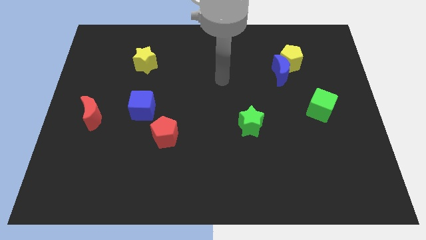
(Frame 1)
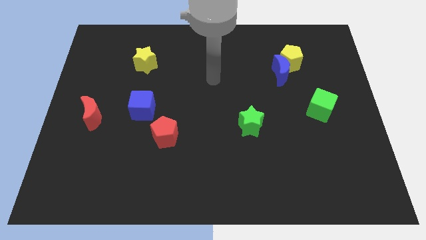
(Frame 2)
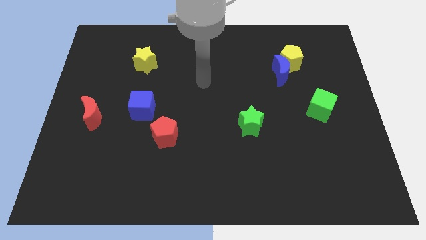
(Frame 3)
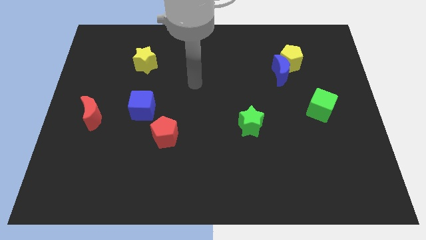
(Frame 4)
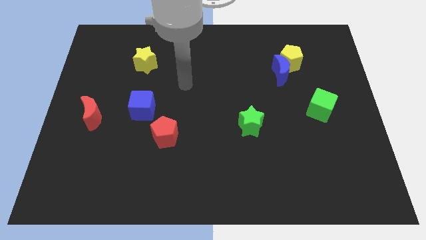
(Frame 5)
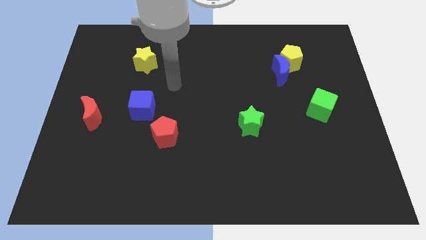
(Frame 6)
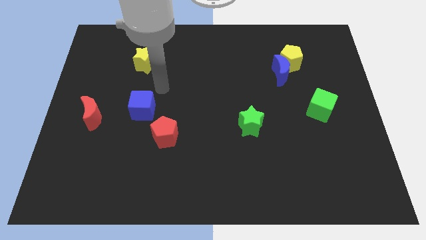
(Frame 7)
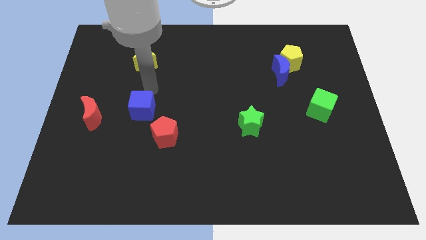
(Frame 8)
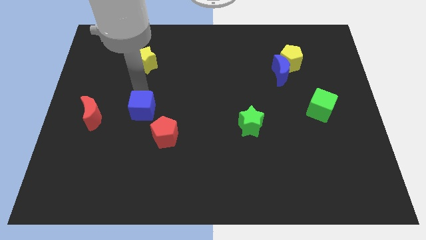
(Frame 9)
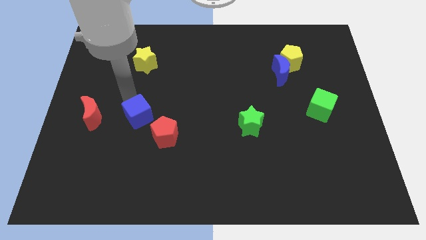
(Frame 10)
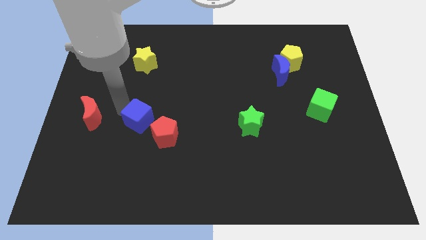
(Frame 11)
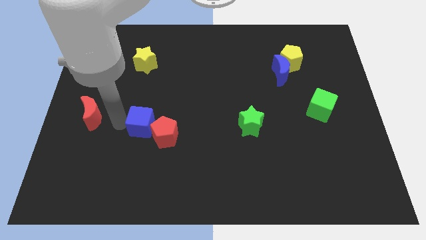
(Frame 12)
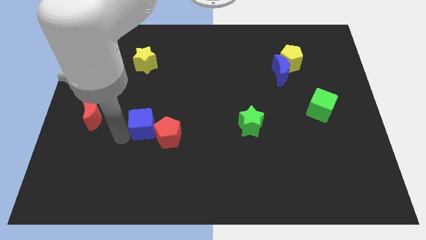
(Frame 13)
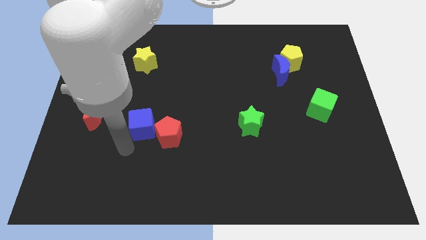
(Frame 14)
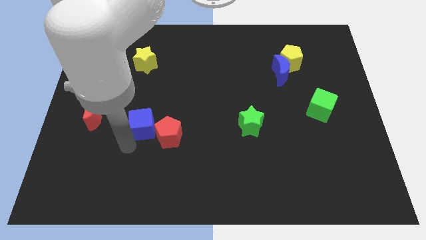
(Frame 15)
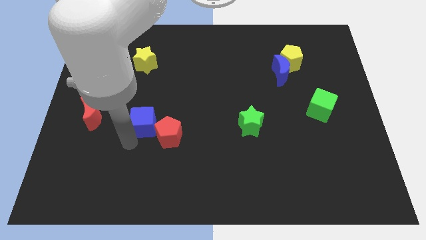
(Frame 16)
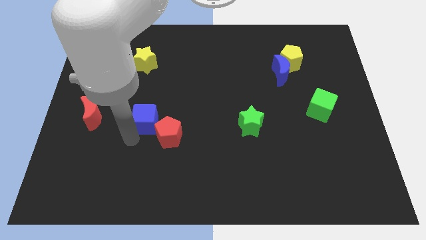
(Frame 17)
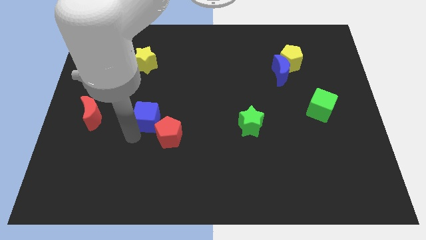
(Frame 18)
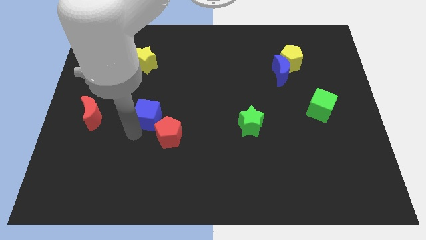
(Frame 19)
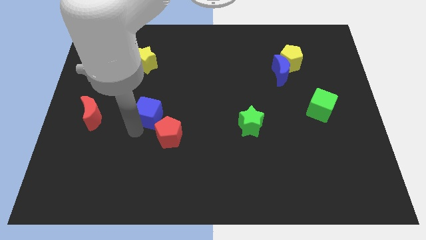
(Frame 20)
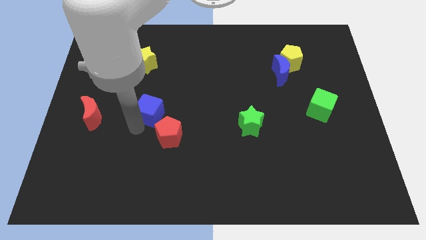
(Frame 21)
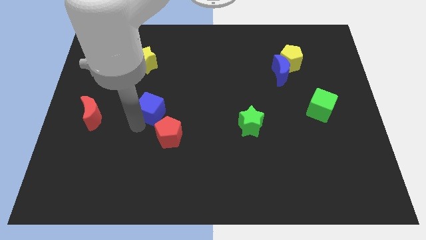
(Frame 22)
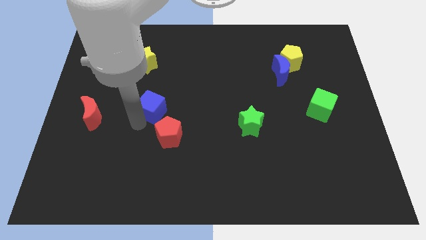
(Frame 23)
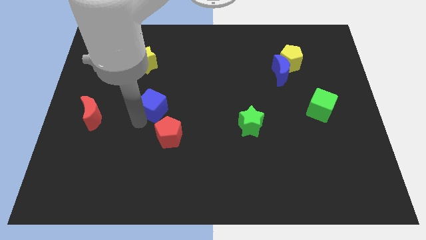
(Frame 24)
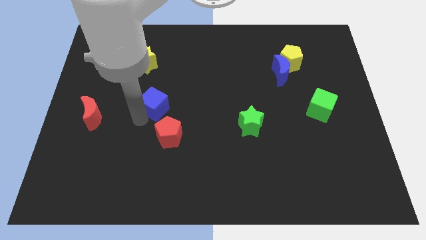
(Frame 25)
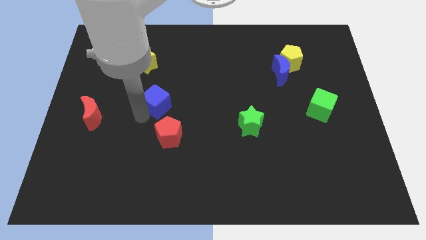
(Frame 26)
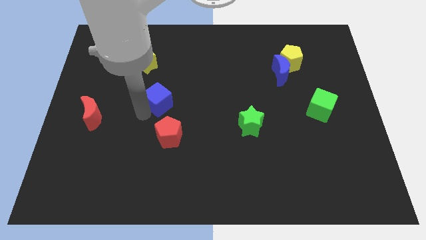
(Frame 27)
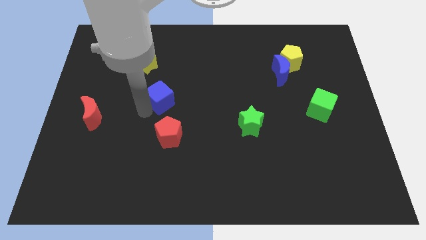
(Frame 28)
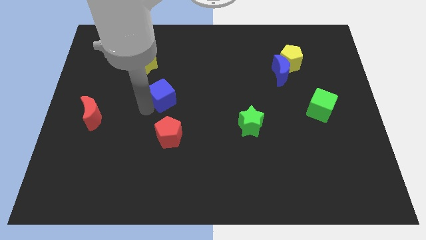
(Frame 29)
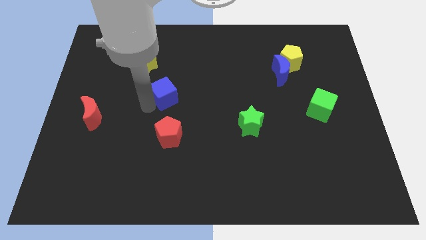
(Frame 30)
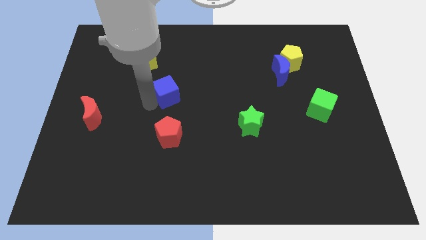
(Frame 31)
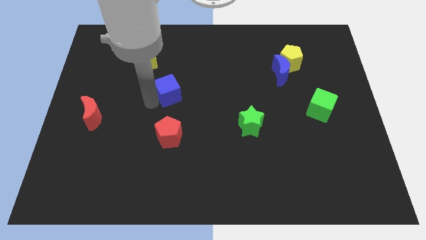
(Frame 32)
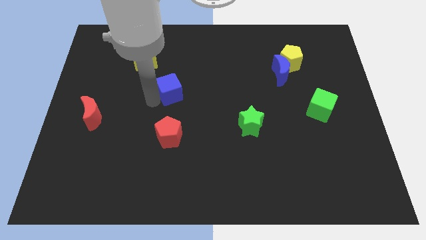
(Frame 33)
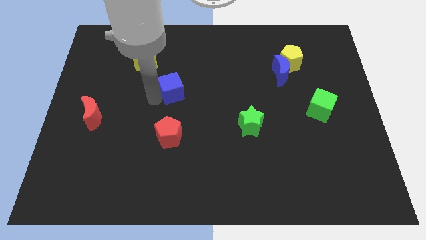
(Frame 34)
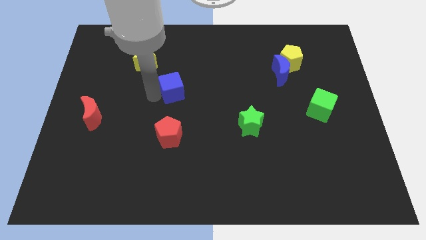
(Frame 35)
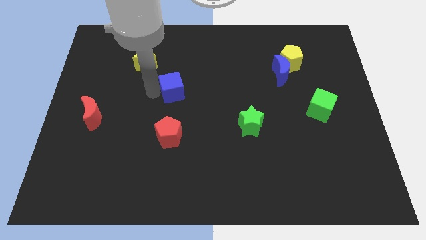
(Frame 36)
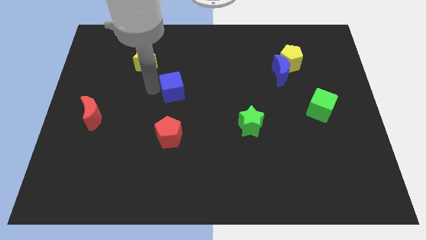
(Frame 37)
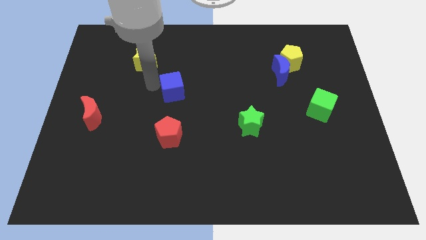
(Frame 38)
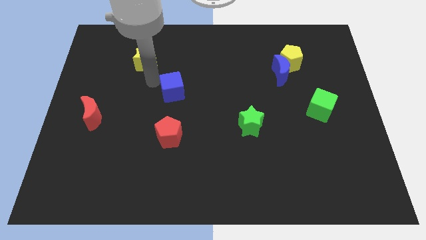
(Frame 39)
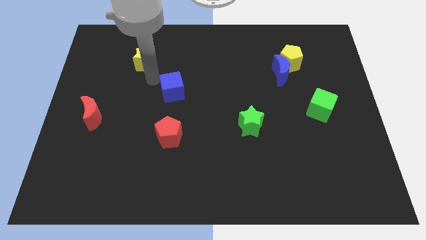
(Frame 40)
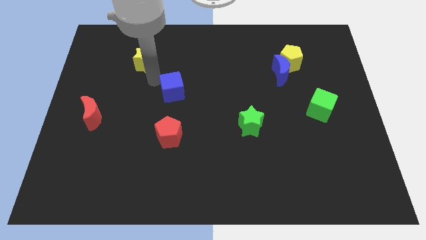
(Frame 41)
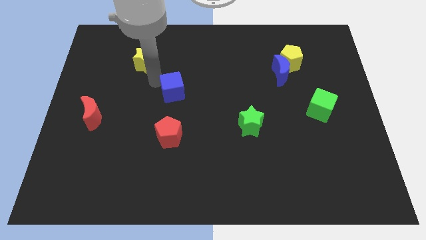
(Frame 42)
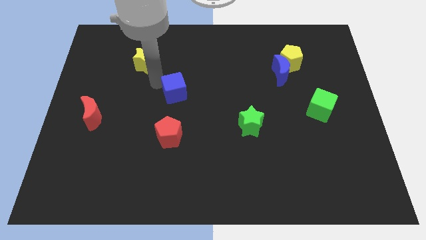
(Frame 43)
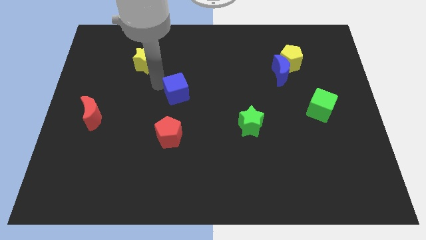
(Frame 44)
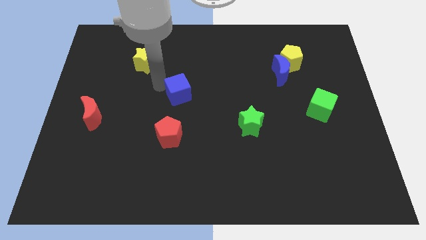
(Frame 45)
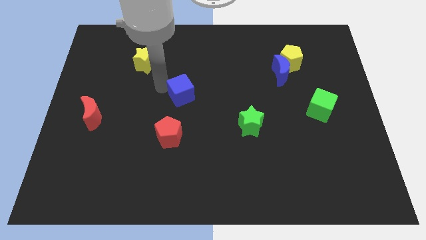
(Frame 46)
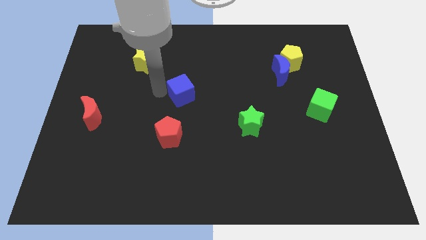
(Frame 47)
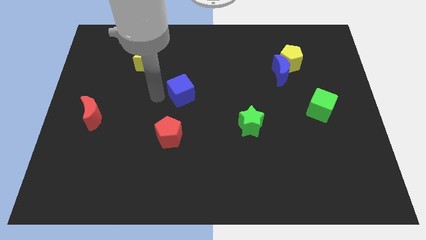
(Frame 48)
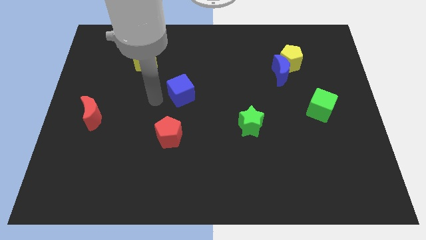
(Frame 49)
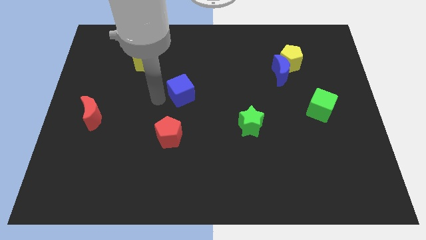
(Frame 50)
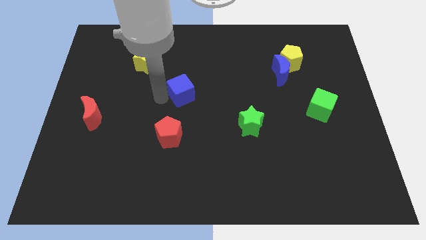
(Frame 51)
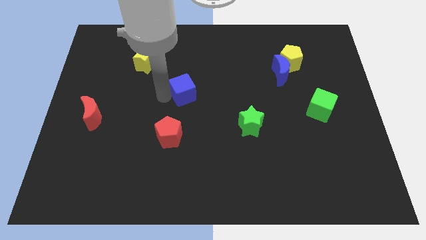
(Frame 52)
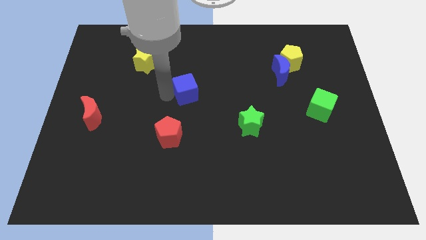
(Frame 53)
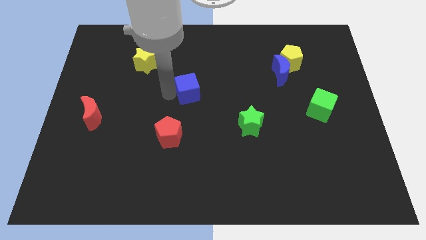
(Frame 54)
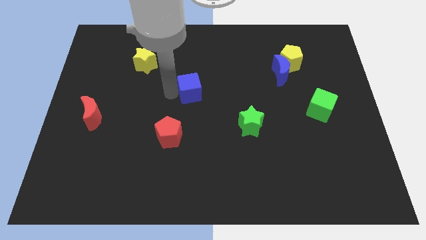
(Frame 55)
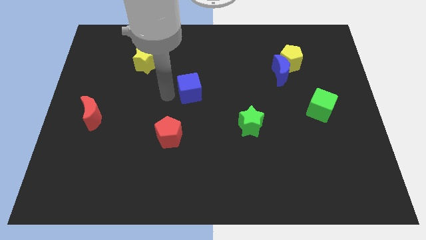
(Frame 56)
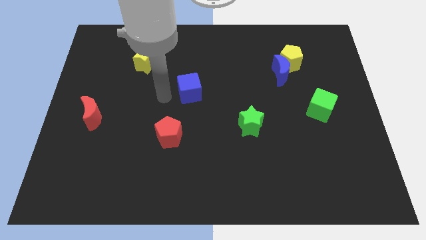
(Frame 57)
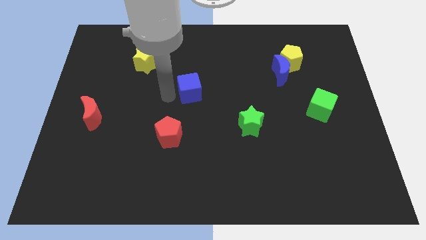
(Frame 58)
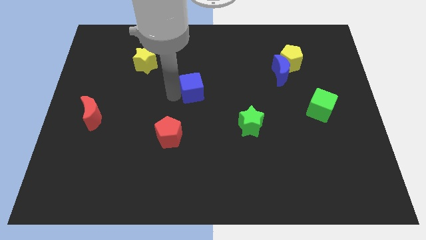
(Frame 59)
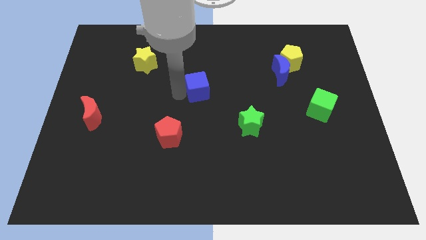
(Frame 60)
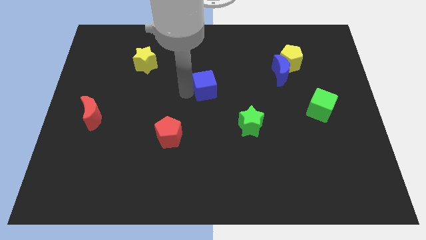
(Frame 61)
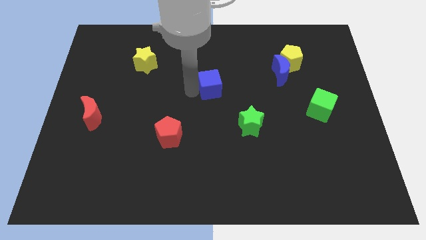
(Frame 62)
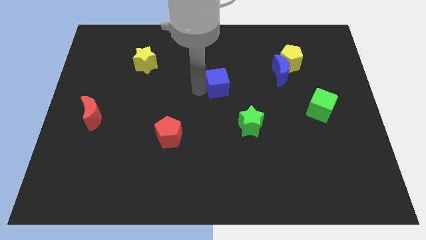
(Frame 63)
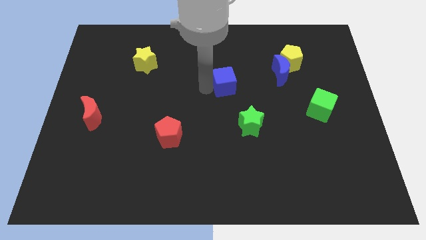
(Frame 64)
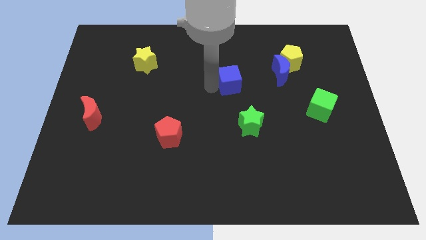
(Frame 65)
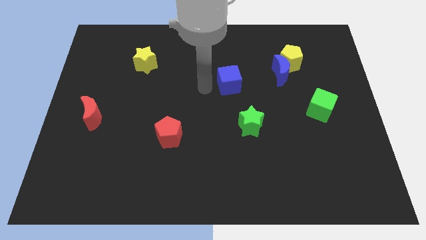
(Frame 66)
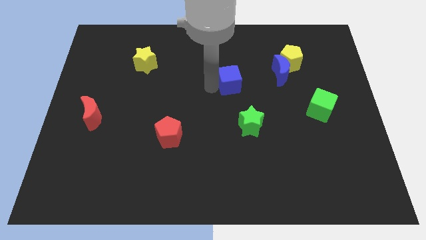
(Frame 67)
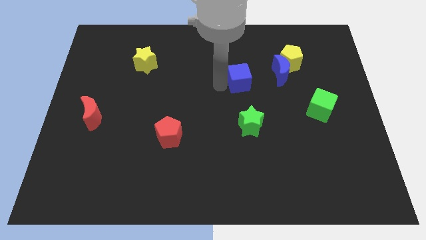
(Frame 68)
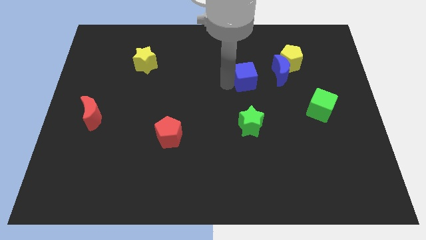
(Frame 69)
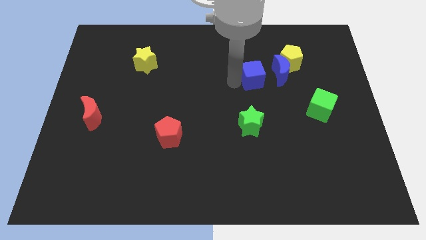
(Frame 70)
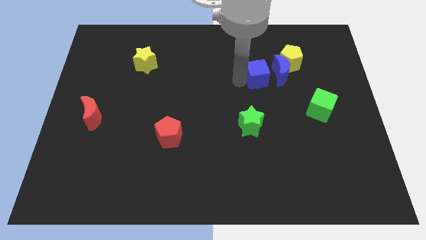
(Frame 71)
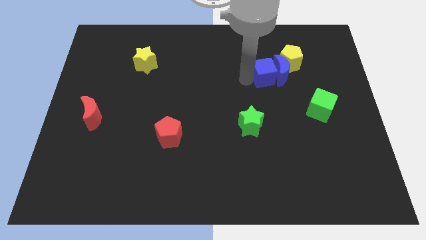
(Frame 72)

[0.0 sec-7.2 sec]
push the blue cube close to the blue moon
